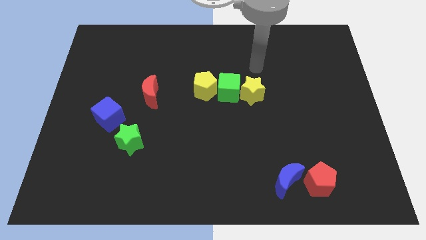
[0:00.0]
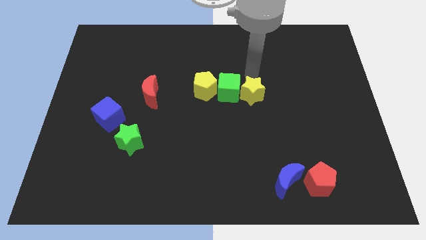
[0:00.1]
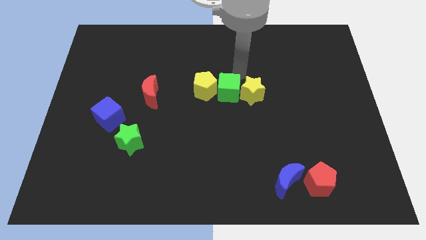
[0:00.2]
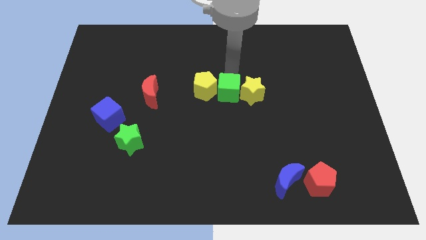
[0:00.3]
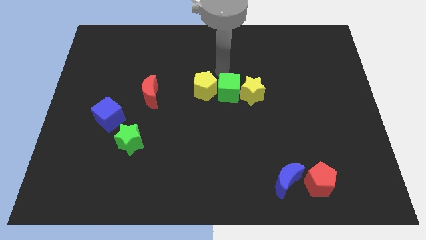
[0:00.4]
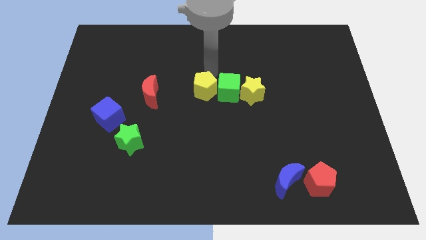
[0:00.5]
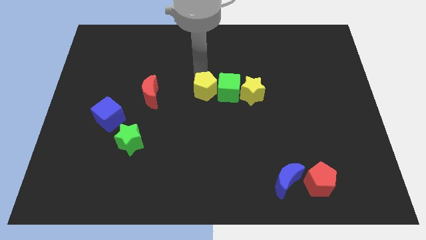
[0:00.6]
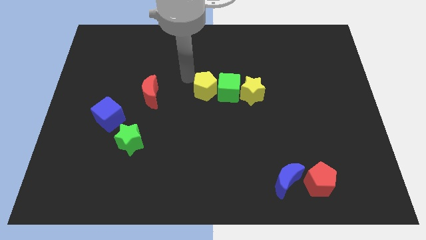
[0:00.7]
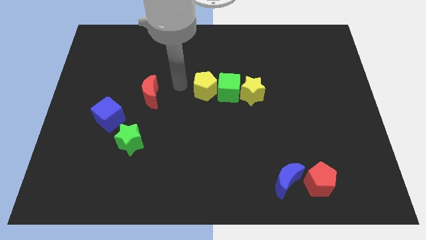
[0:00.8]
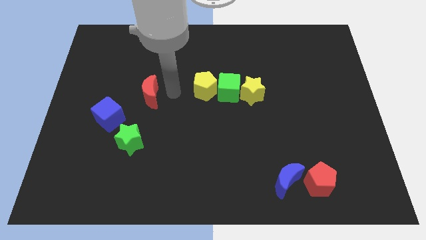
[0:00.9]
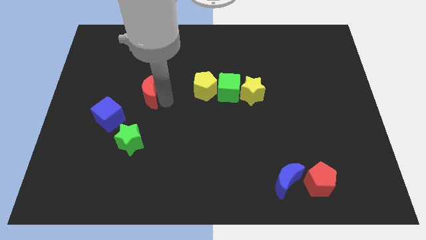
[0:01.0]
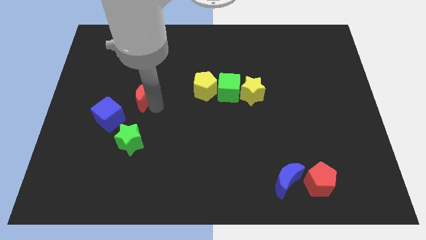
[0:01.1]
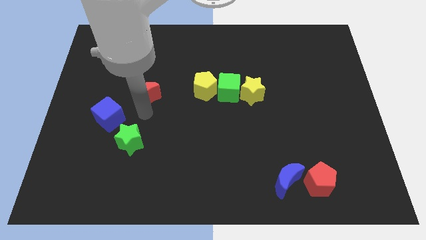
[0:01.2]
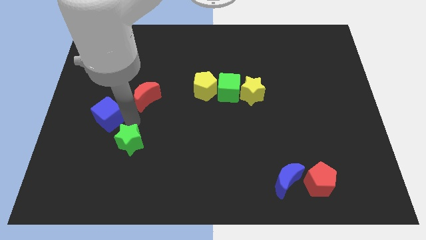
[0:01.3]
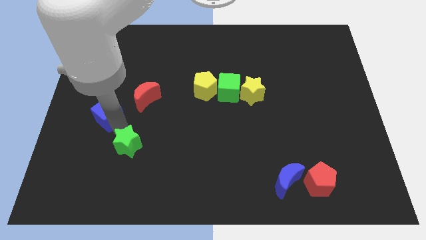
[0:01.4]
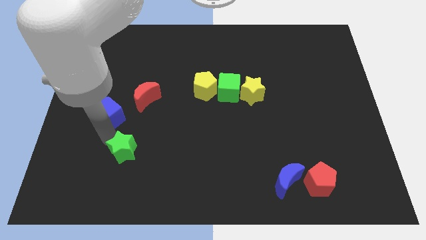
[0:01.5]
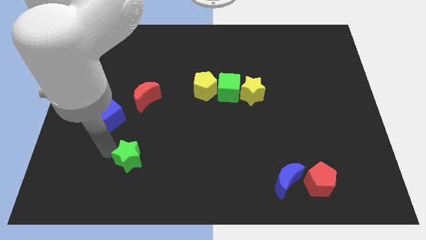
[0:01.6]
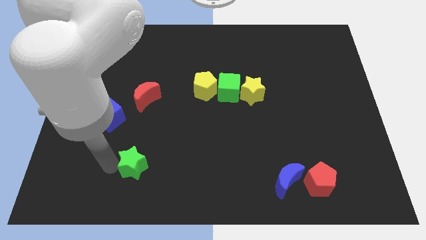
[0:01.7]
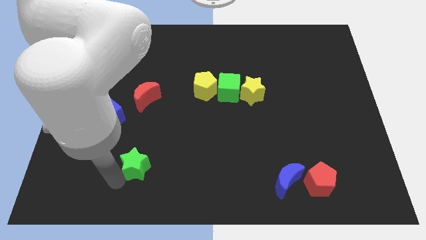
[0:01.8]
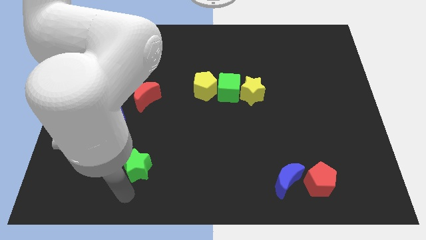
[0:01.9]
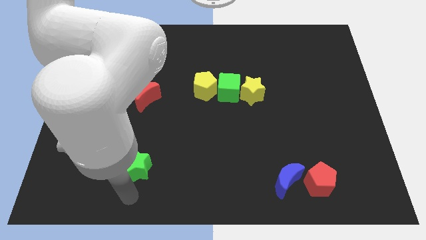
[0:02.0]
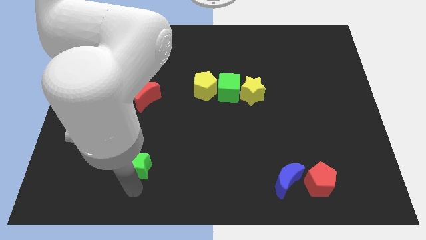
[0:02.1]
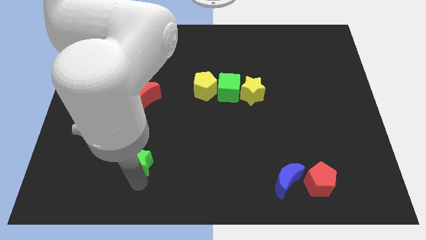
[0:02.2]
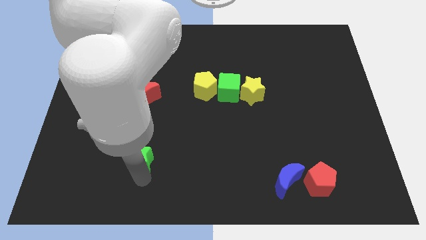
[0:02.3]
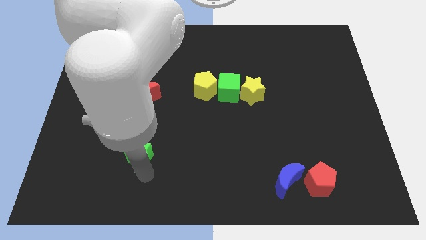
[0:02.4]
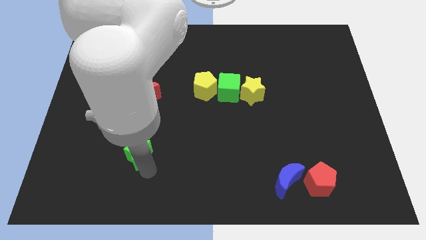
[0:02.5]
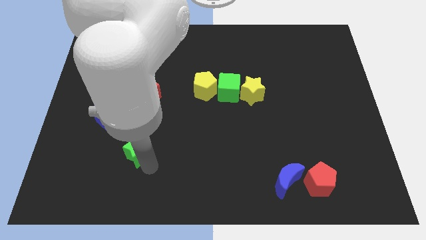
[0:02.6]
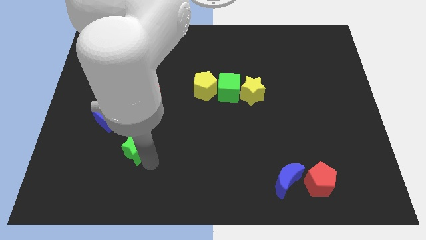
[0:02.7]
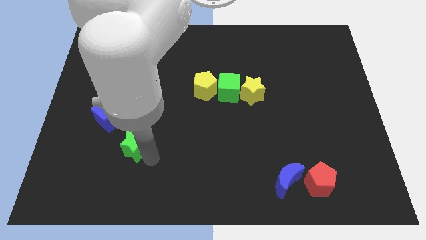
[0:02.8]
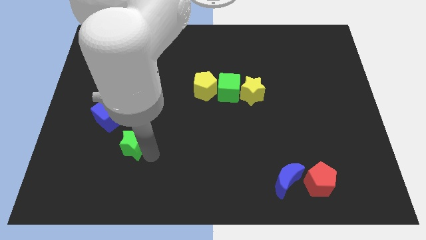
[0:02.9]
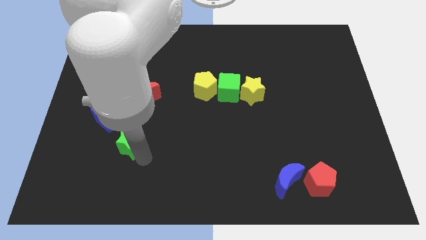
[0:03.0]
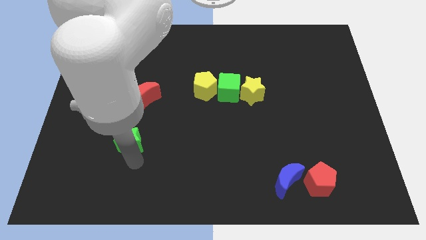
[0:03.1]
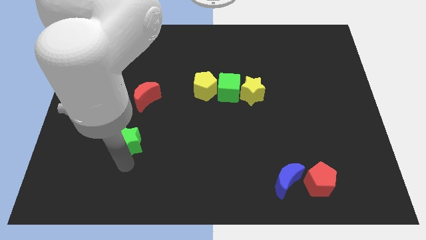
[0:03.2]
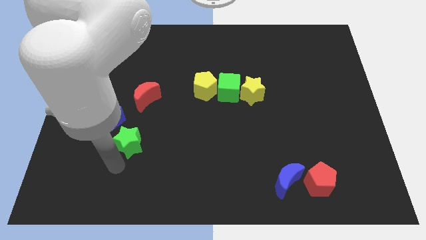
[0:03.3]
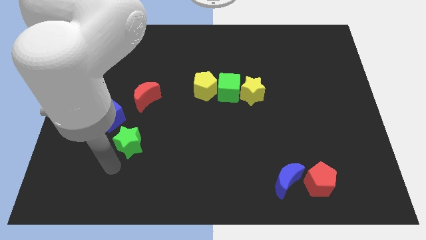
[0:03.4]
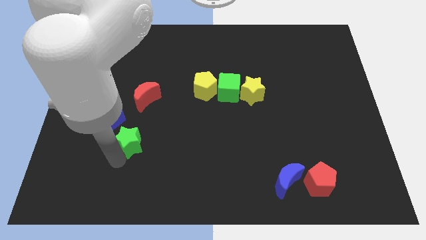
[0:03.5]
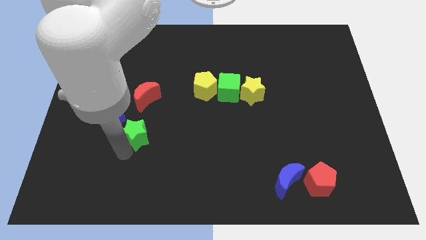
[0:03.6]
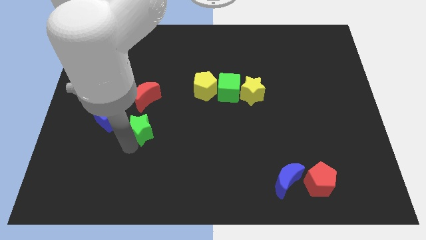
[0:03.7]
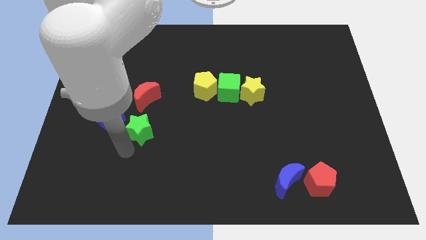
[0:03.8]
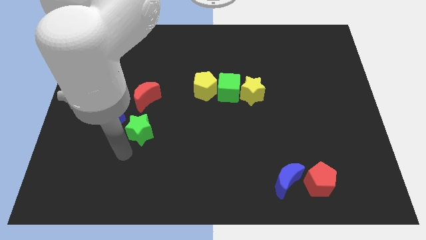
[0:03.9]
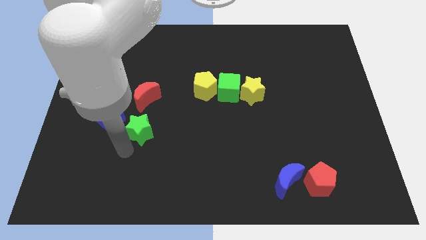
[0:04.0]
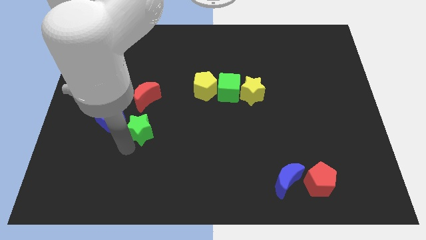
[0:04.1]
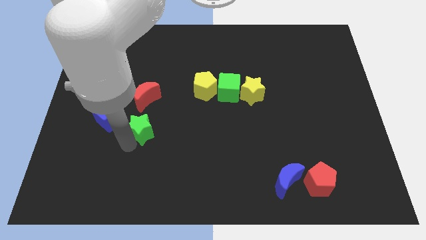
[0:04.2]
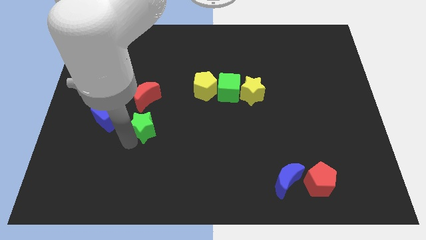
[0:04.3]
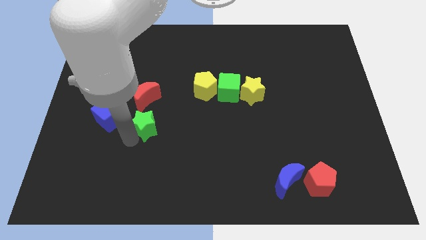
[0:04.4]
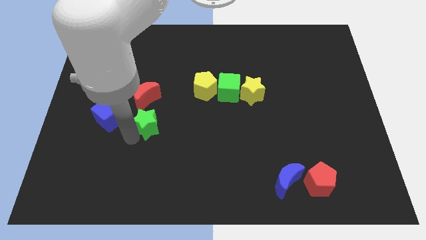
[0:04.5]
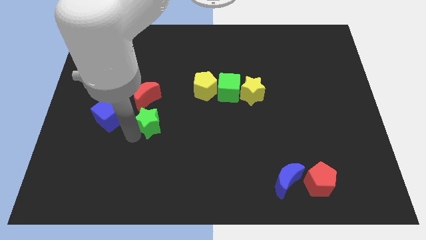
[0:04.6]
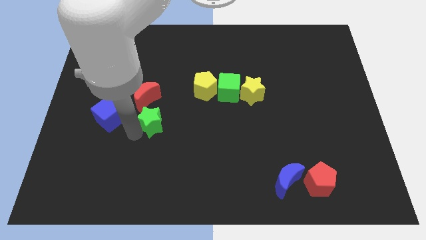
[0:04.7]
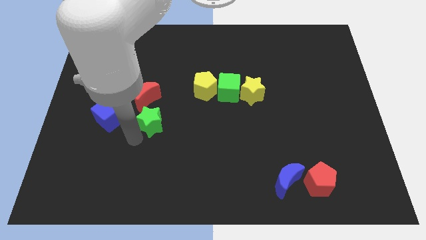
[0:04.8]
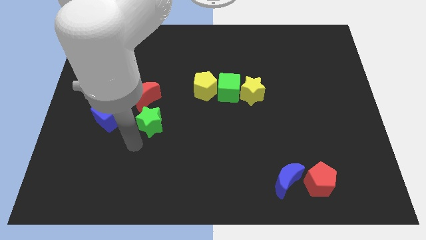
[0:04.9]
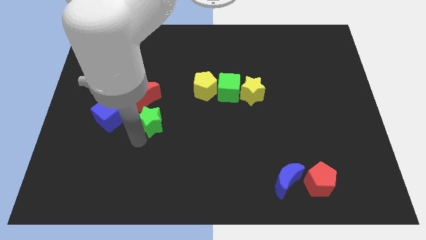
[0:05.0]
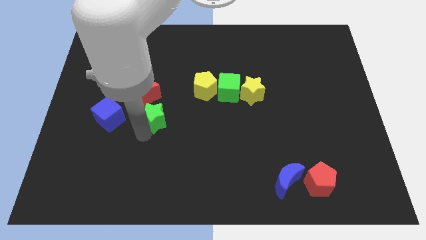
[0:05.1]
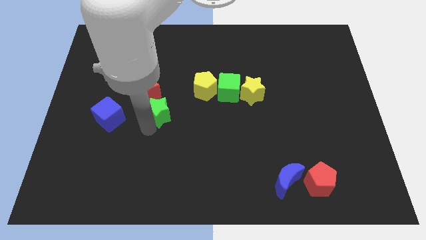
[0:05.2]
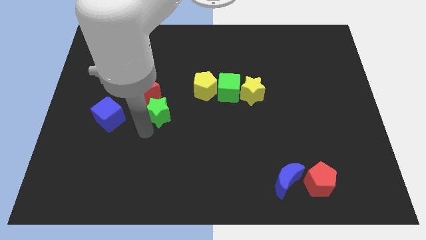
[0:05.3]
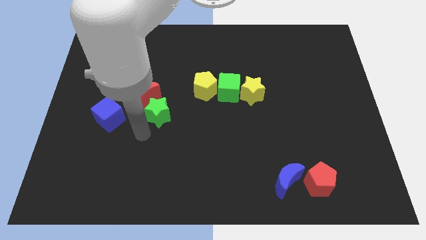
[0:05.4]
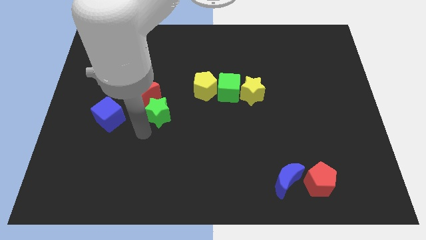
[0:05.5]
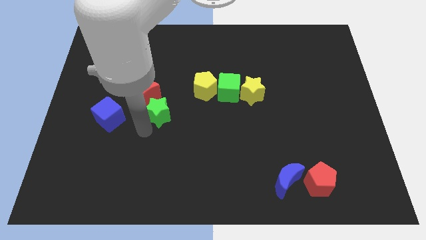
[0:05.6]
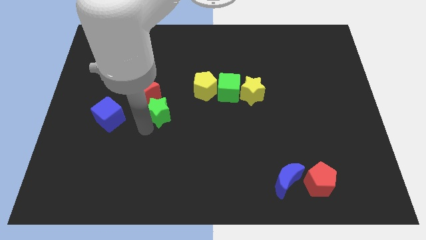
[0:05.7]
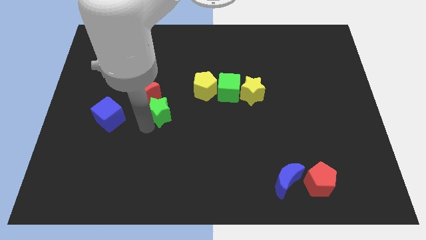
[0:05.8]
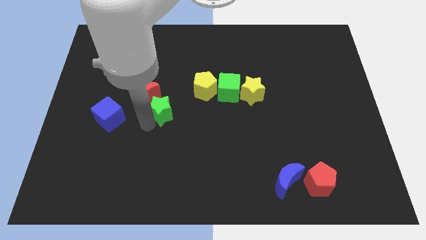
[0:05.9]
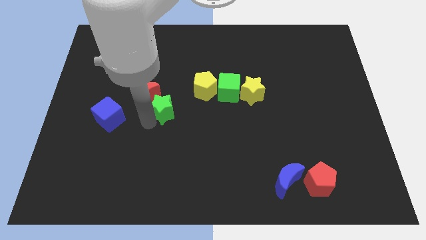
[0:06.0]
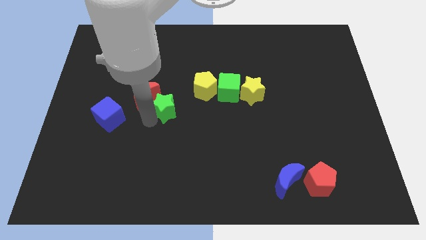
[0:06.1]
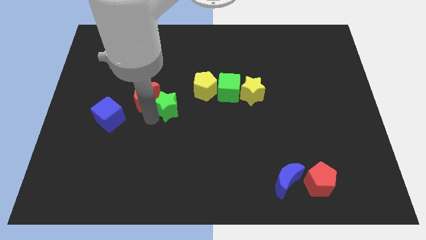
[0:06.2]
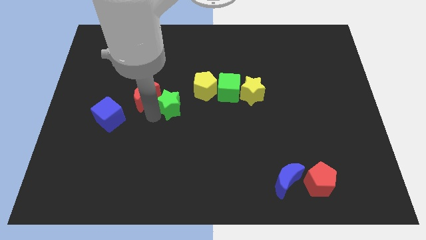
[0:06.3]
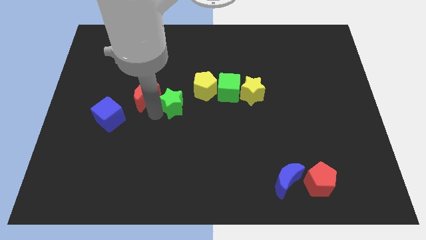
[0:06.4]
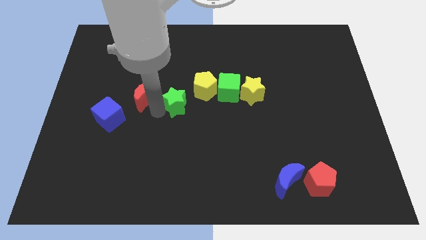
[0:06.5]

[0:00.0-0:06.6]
put the green star left of the green cube
